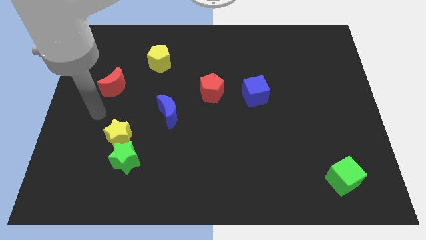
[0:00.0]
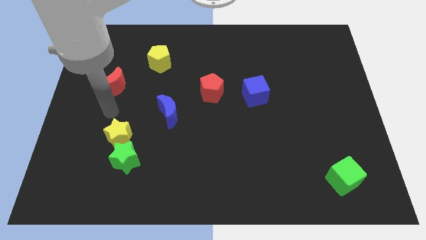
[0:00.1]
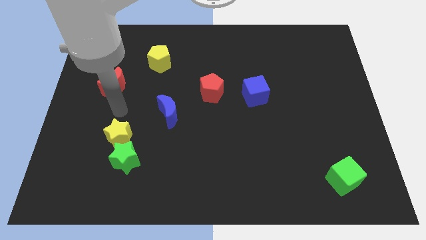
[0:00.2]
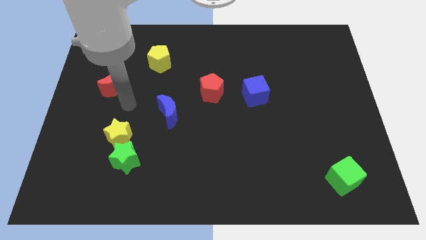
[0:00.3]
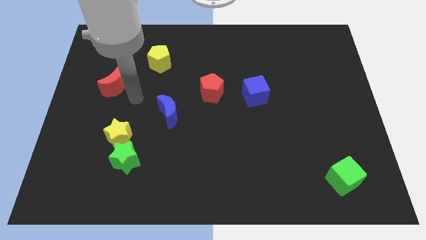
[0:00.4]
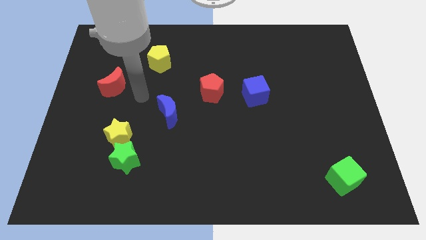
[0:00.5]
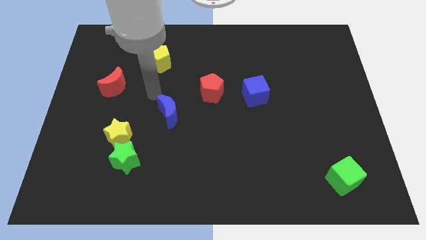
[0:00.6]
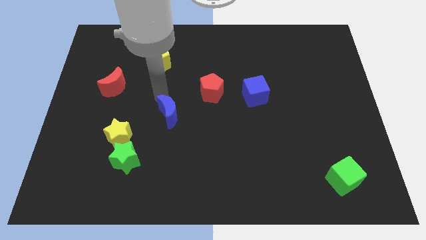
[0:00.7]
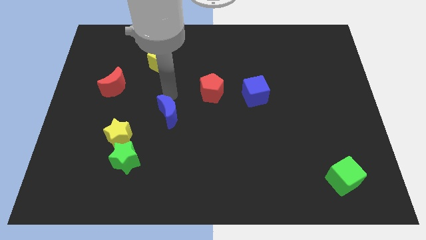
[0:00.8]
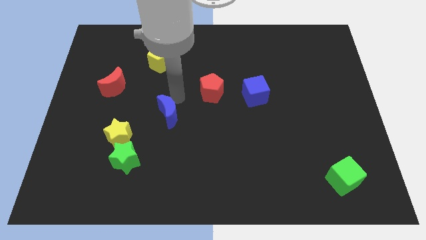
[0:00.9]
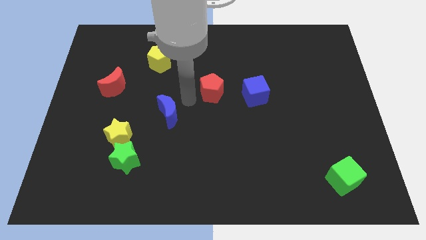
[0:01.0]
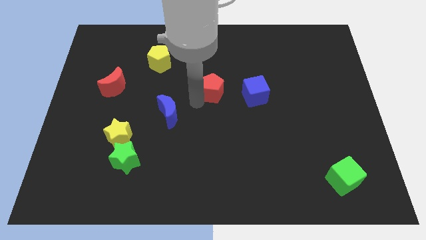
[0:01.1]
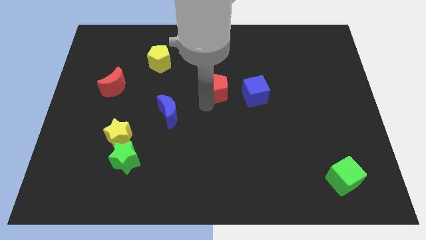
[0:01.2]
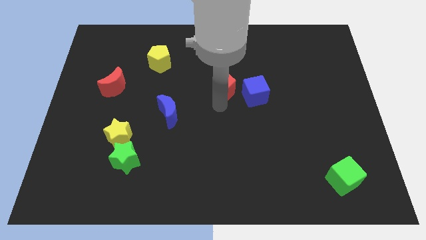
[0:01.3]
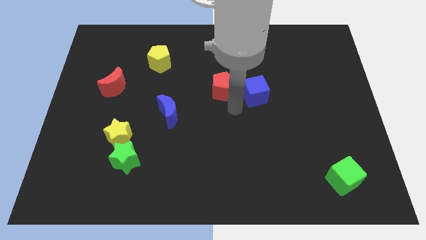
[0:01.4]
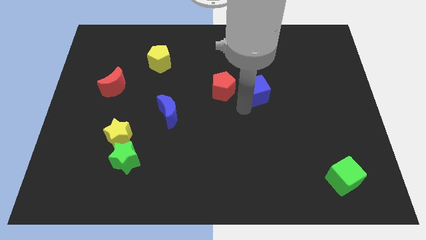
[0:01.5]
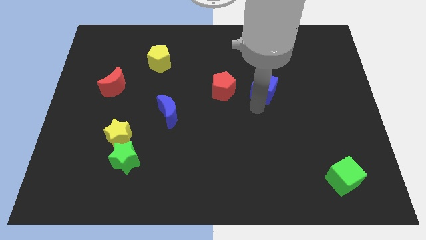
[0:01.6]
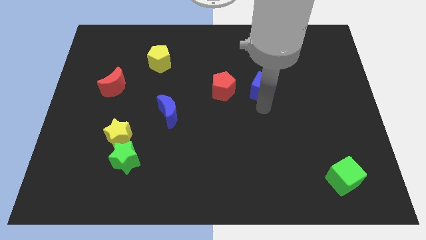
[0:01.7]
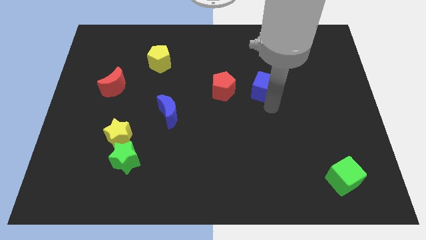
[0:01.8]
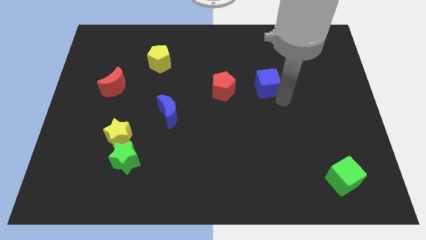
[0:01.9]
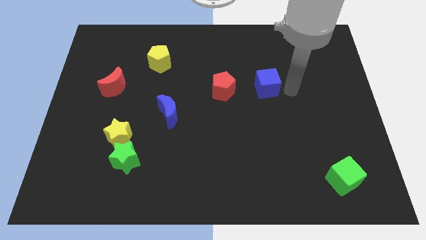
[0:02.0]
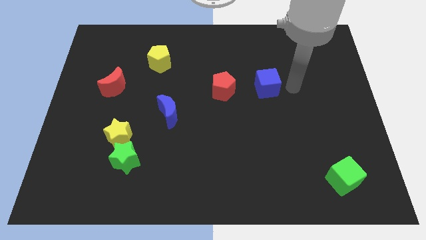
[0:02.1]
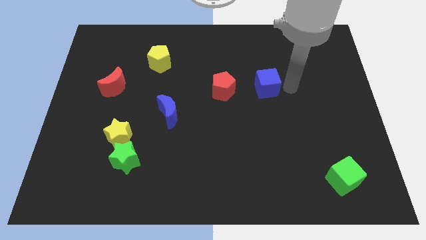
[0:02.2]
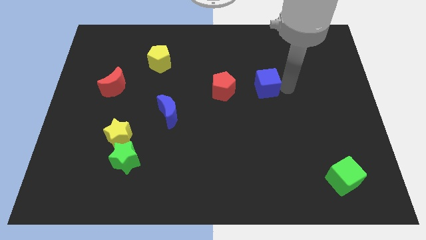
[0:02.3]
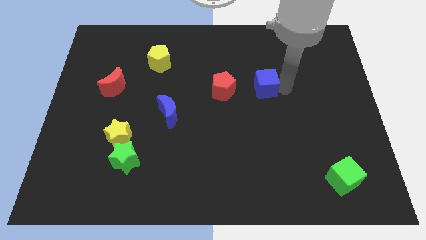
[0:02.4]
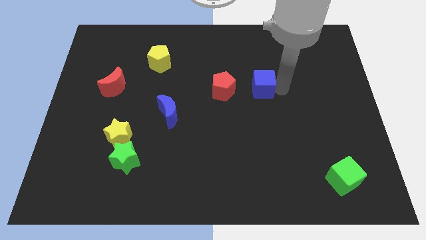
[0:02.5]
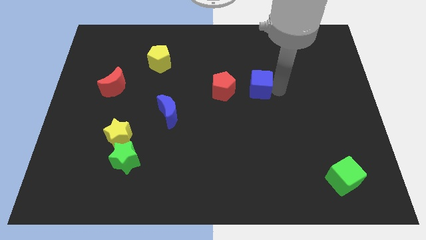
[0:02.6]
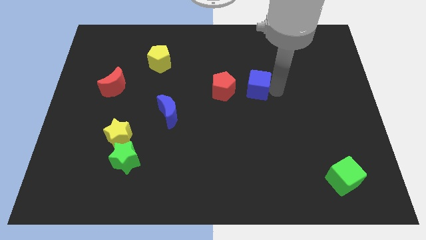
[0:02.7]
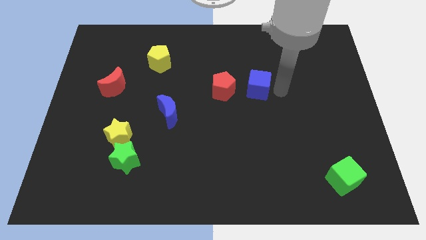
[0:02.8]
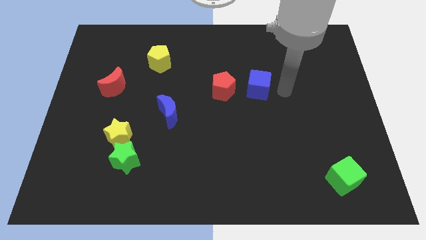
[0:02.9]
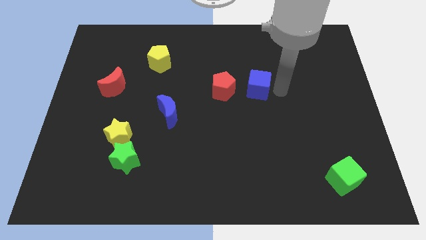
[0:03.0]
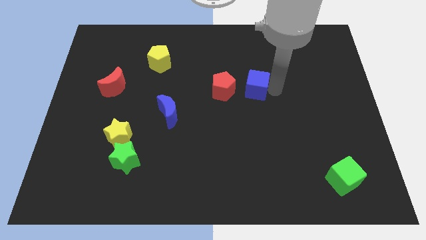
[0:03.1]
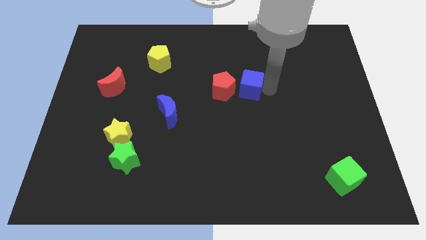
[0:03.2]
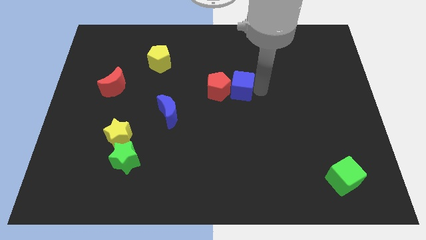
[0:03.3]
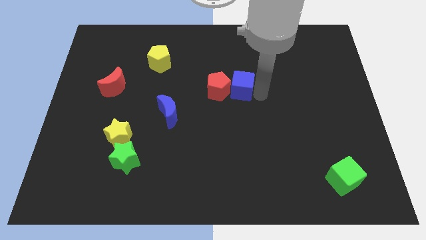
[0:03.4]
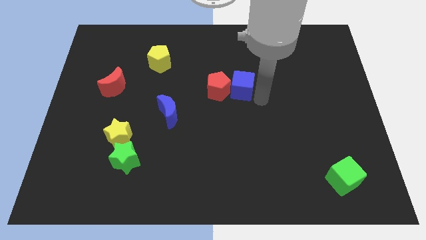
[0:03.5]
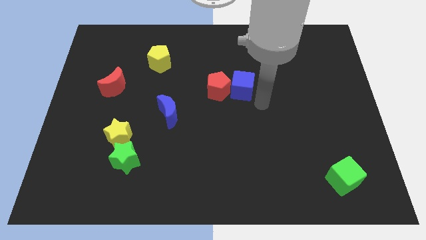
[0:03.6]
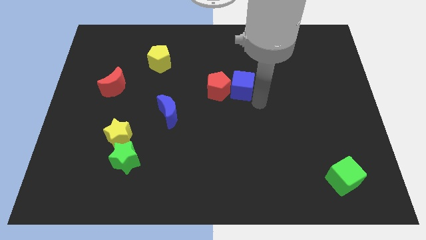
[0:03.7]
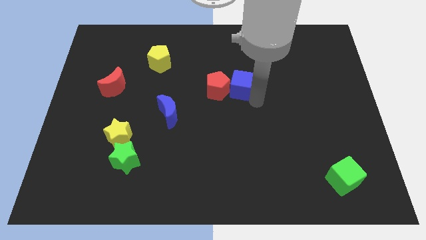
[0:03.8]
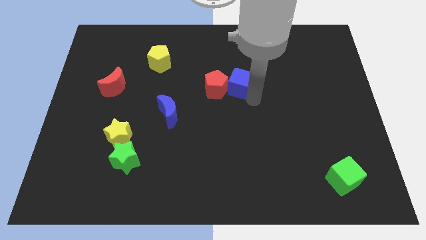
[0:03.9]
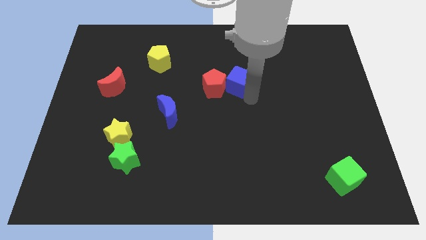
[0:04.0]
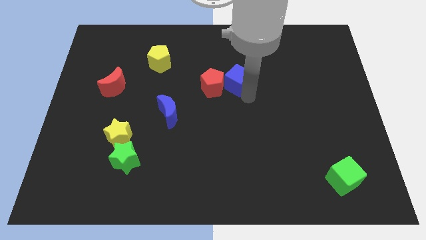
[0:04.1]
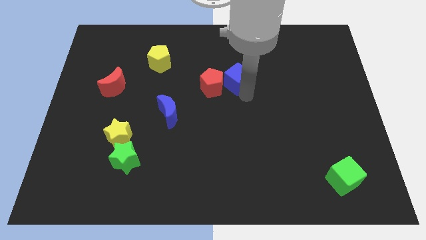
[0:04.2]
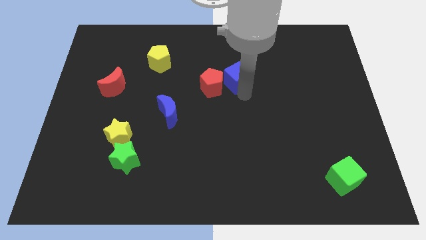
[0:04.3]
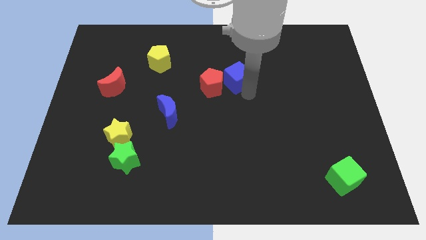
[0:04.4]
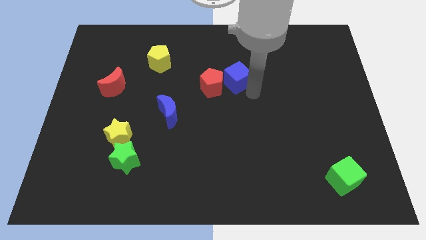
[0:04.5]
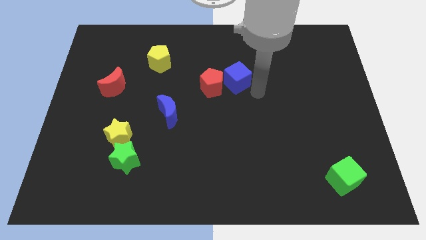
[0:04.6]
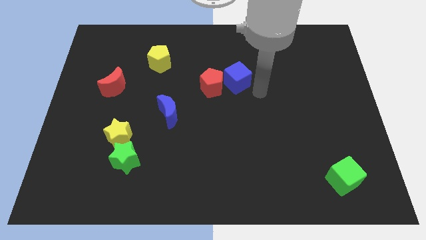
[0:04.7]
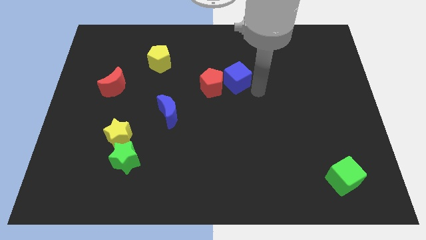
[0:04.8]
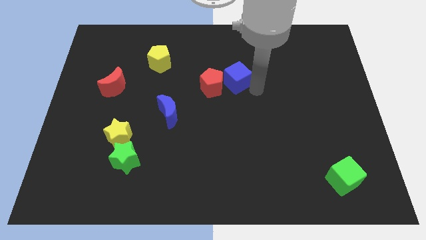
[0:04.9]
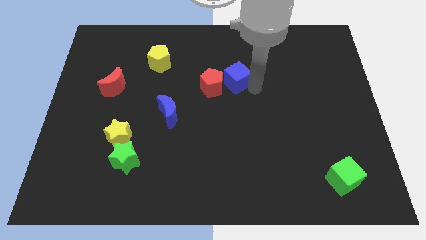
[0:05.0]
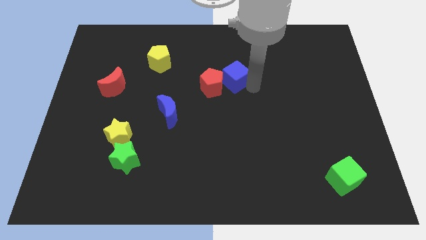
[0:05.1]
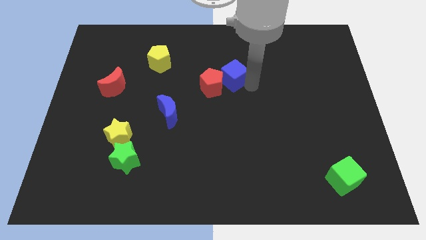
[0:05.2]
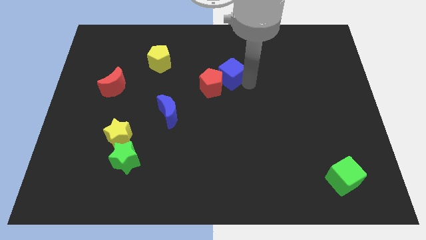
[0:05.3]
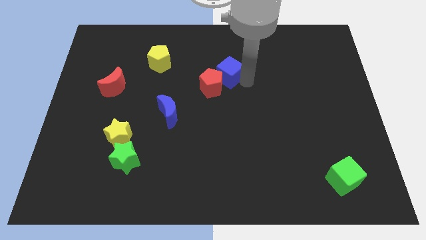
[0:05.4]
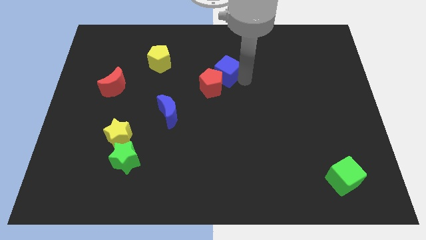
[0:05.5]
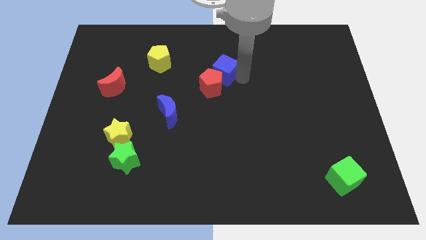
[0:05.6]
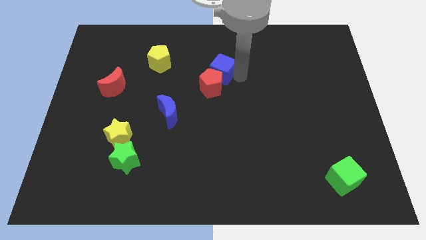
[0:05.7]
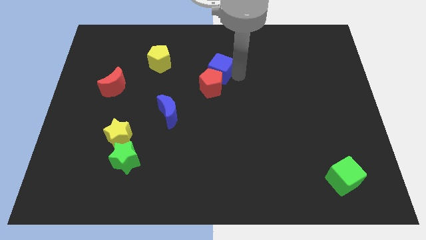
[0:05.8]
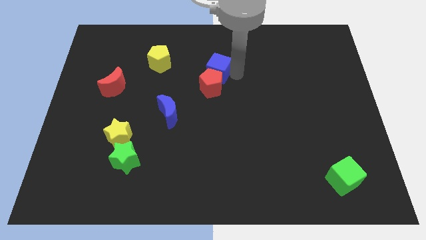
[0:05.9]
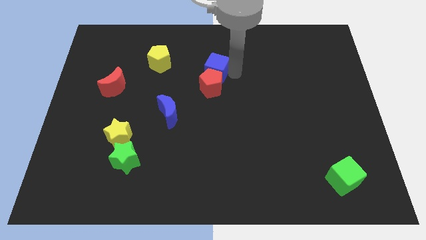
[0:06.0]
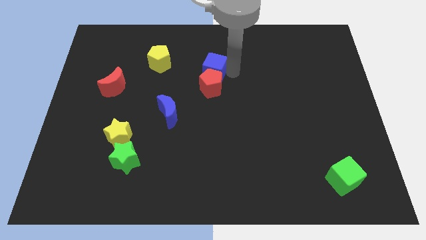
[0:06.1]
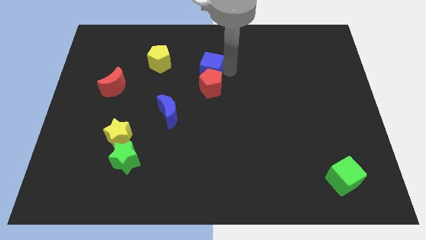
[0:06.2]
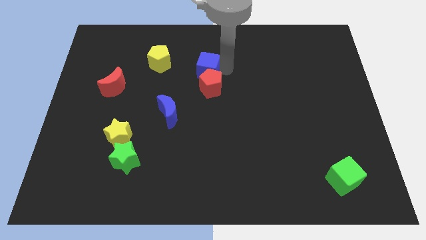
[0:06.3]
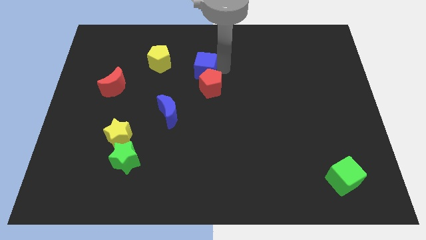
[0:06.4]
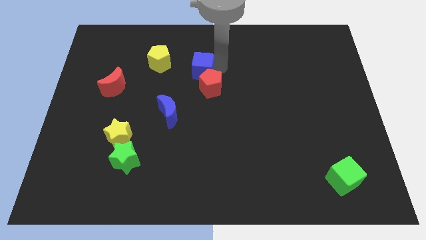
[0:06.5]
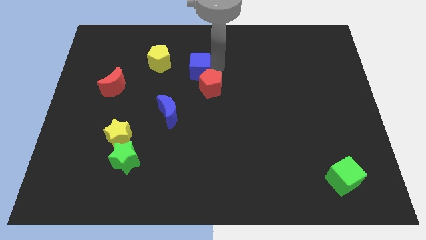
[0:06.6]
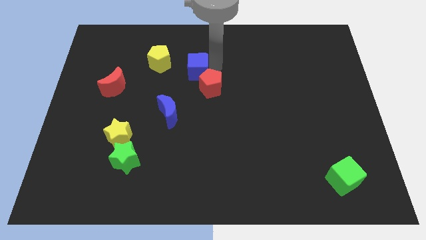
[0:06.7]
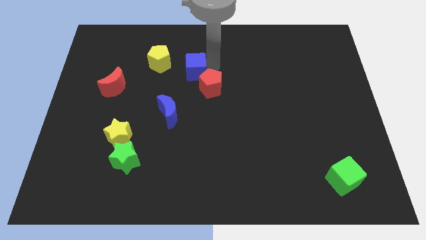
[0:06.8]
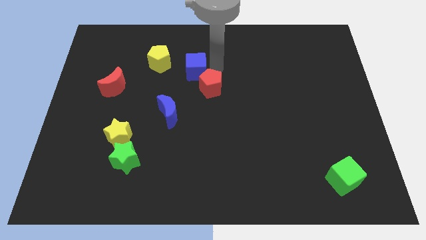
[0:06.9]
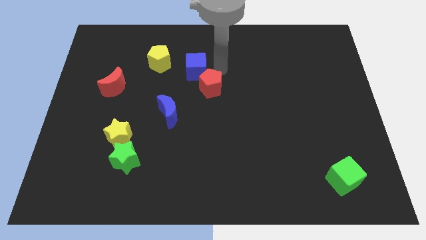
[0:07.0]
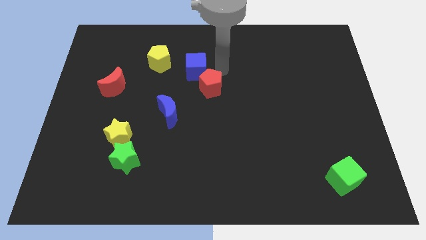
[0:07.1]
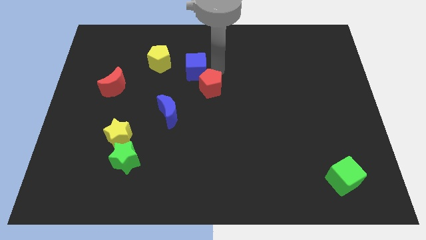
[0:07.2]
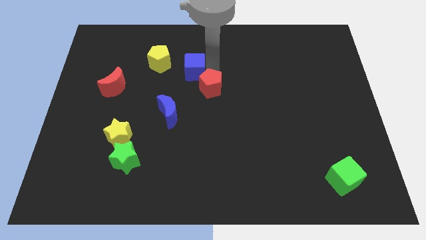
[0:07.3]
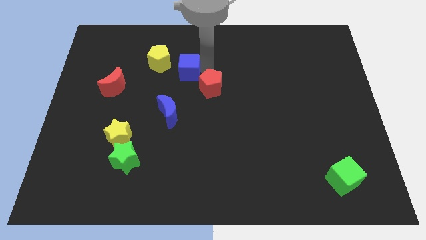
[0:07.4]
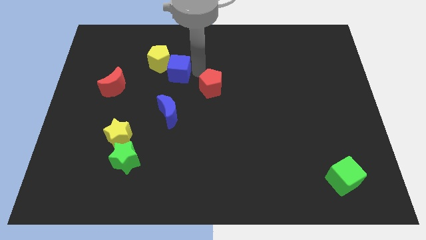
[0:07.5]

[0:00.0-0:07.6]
slide the blue cube to the yellow pentagon
